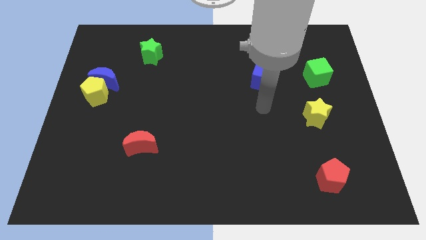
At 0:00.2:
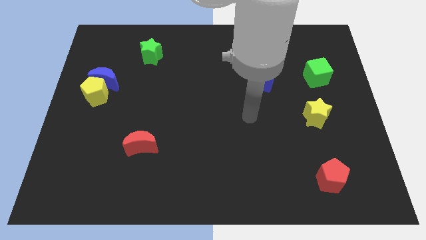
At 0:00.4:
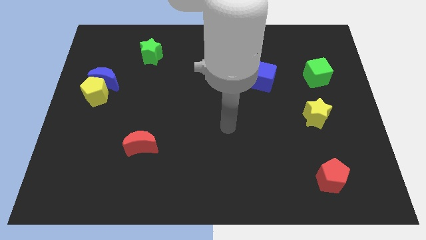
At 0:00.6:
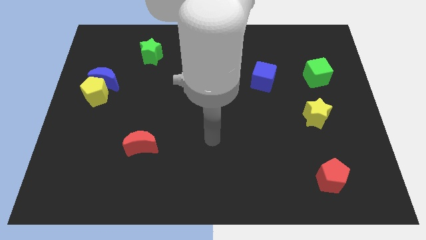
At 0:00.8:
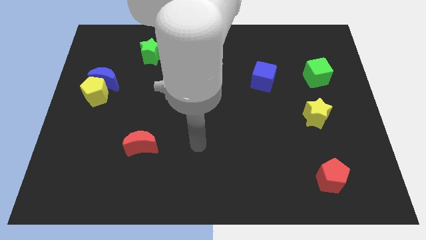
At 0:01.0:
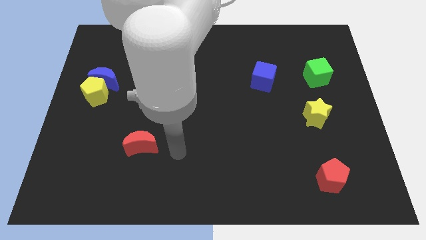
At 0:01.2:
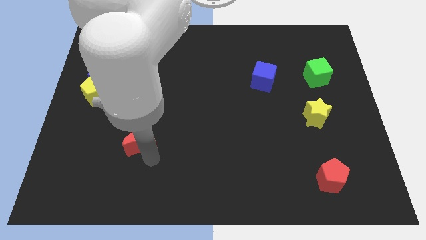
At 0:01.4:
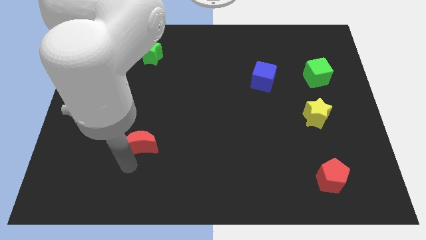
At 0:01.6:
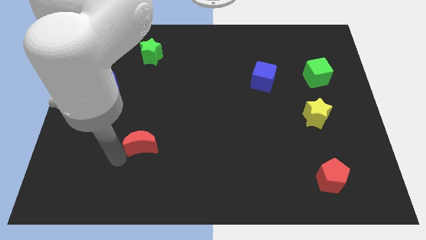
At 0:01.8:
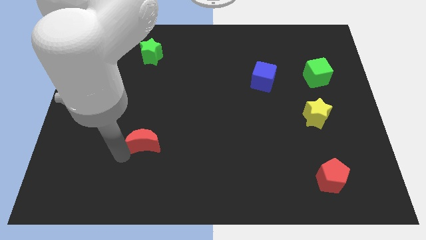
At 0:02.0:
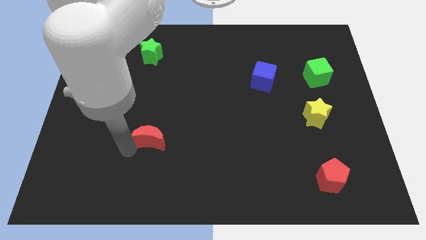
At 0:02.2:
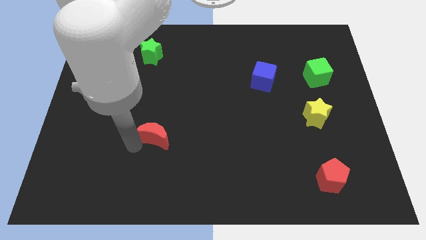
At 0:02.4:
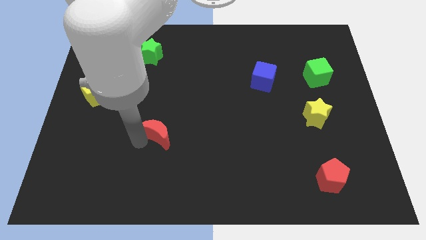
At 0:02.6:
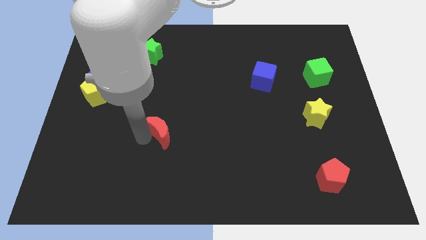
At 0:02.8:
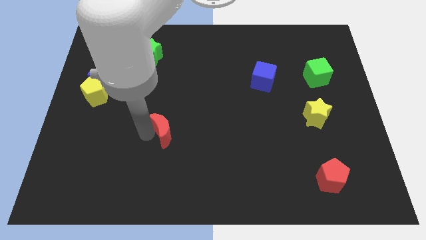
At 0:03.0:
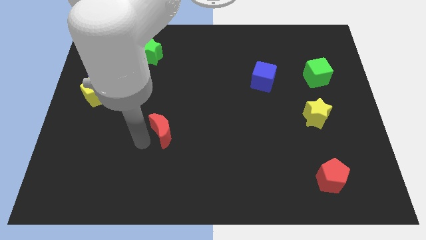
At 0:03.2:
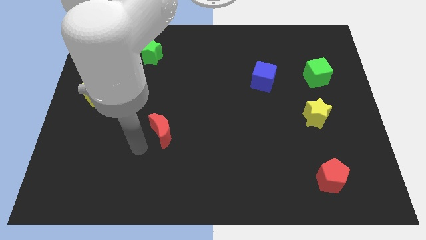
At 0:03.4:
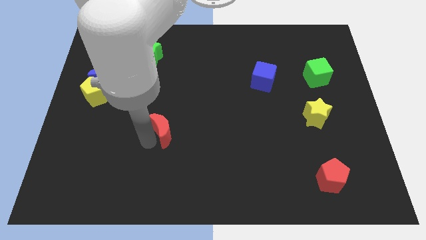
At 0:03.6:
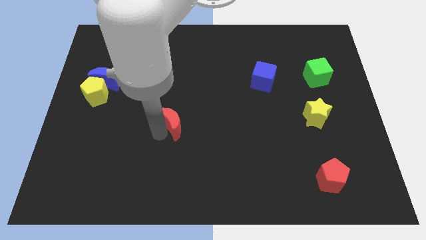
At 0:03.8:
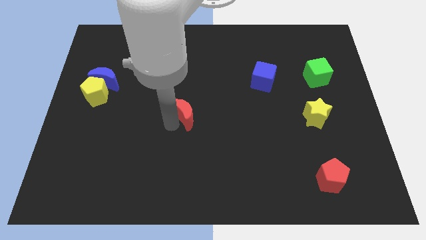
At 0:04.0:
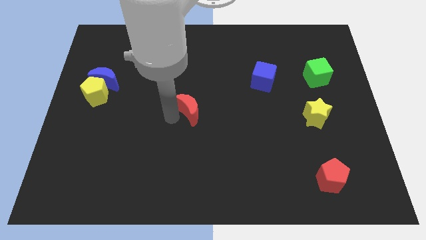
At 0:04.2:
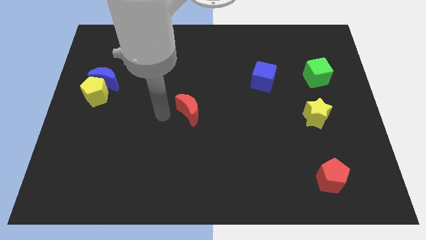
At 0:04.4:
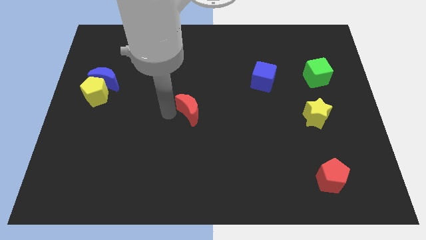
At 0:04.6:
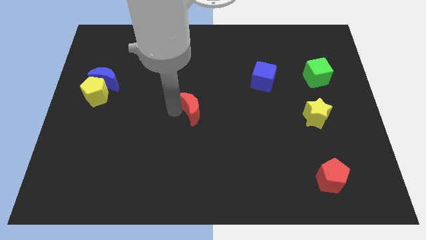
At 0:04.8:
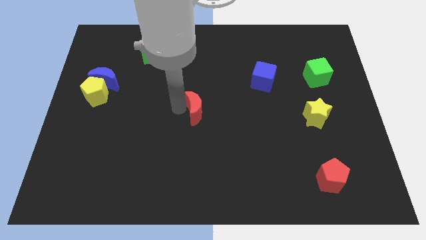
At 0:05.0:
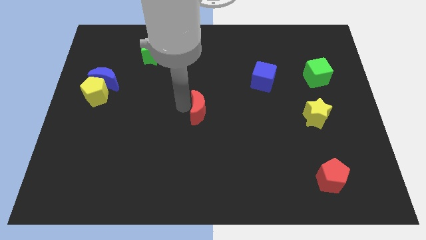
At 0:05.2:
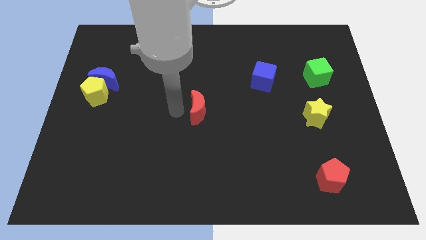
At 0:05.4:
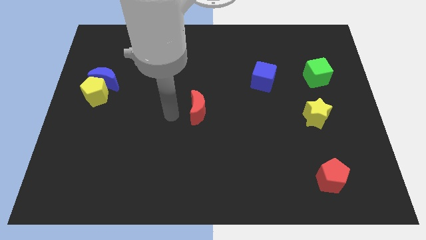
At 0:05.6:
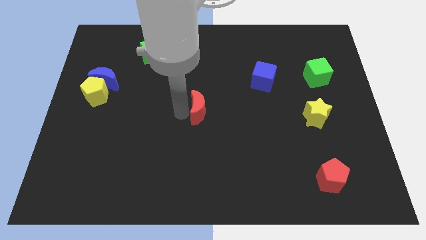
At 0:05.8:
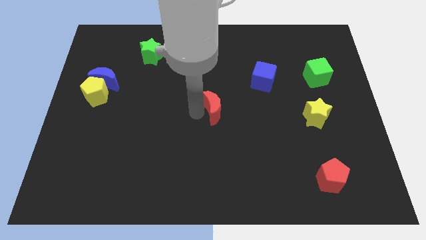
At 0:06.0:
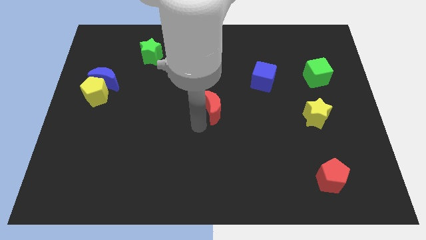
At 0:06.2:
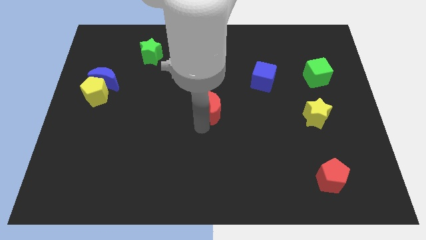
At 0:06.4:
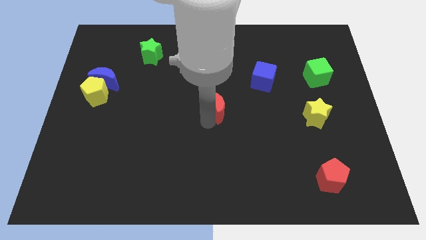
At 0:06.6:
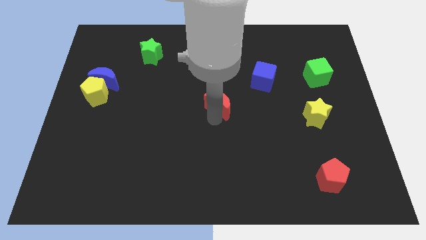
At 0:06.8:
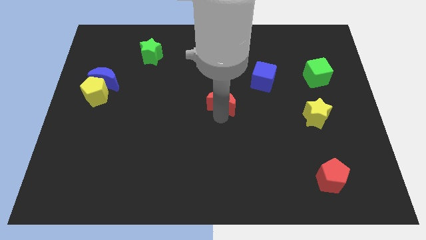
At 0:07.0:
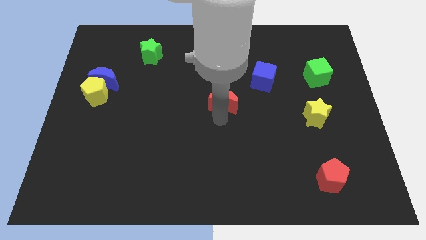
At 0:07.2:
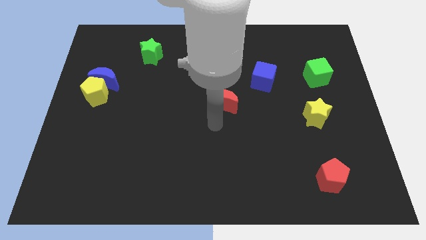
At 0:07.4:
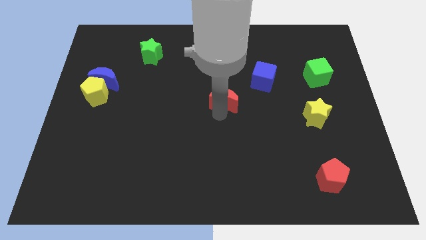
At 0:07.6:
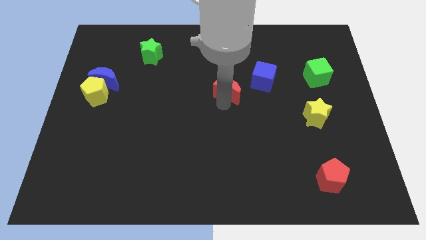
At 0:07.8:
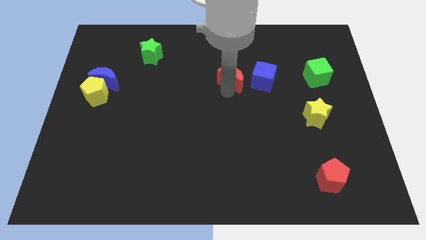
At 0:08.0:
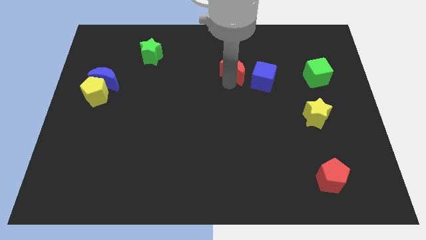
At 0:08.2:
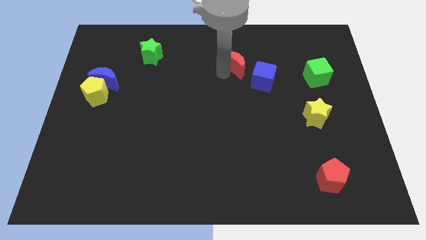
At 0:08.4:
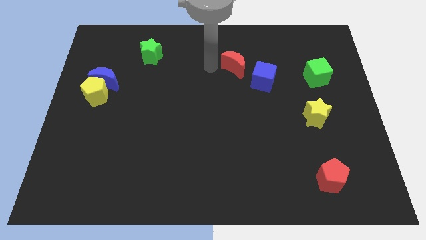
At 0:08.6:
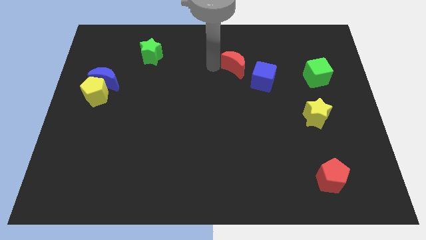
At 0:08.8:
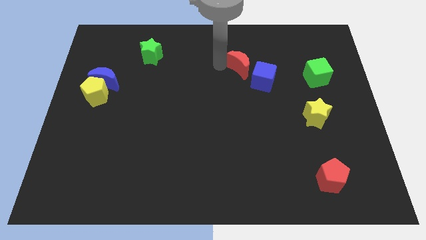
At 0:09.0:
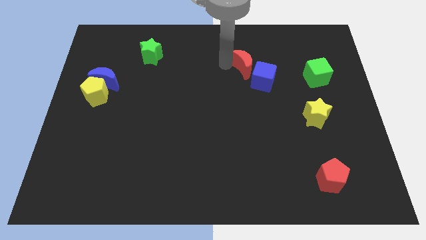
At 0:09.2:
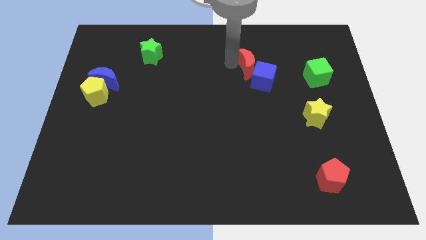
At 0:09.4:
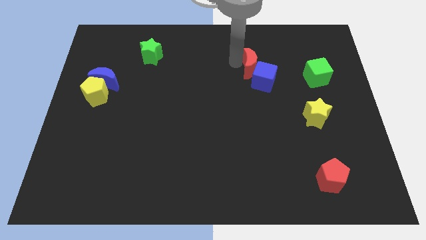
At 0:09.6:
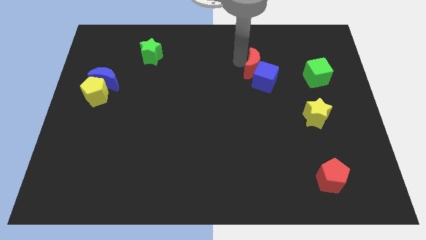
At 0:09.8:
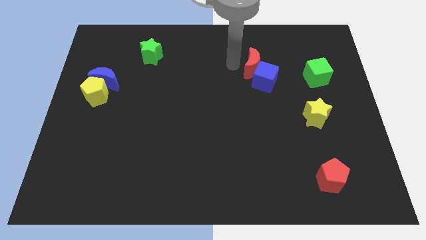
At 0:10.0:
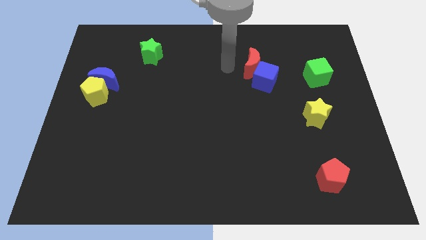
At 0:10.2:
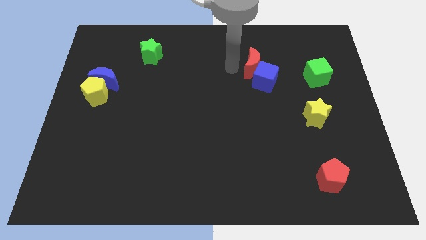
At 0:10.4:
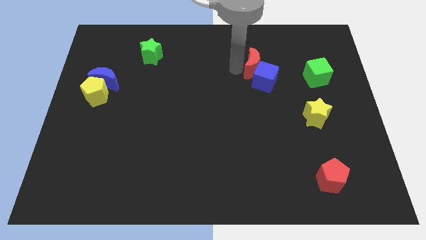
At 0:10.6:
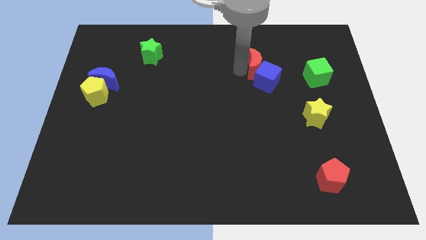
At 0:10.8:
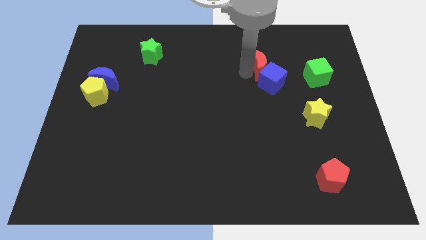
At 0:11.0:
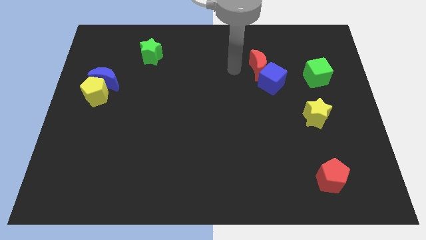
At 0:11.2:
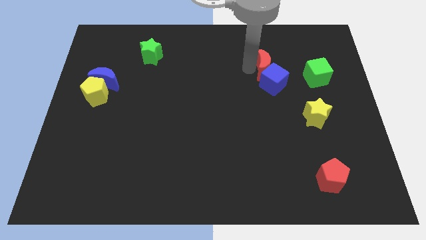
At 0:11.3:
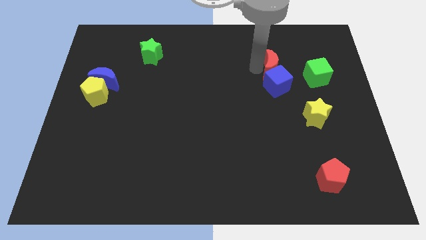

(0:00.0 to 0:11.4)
push the red moon to the top right of the blue cube

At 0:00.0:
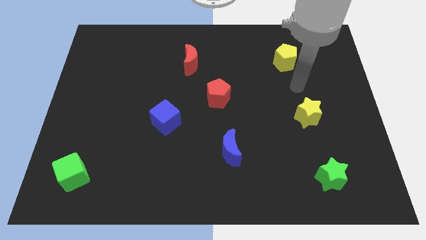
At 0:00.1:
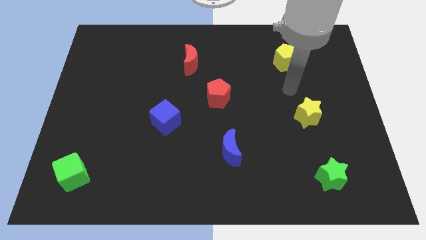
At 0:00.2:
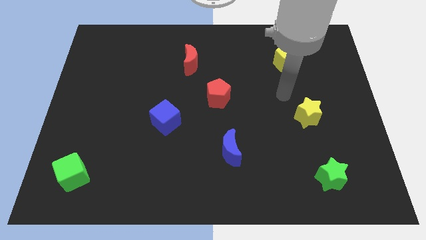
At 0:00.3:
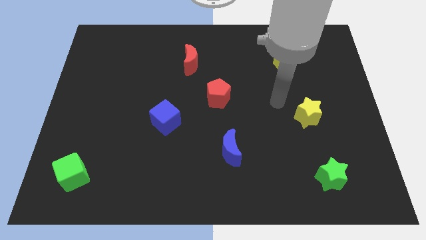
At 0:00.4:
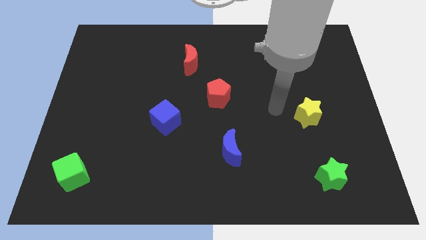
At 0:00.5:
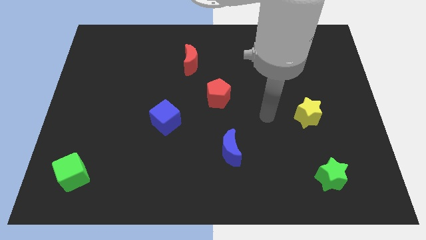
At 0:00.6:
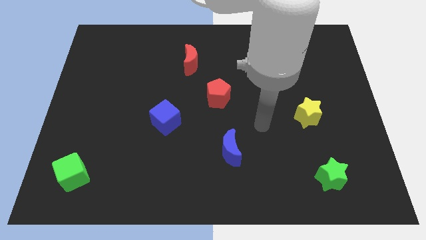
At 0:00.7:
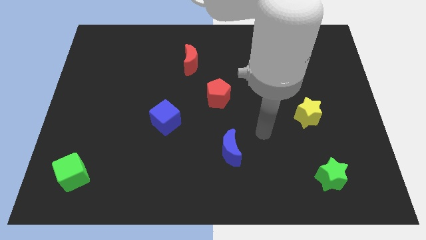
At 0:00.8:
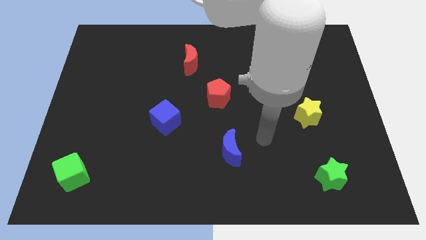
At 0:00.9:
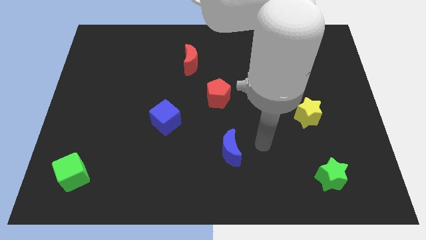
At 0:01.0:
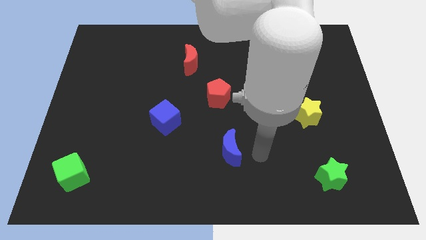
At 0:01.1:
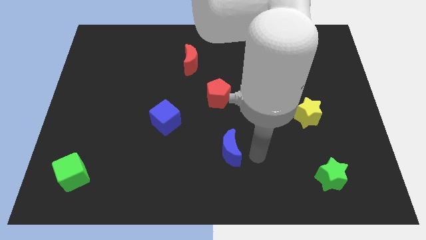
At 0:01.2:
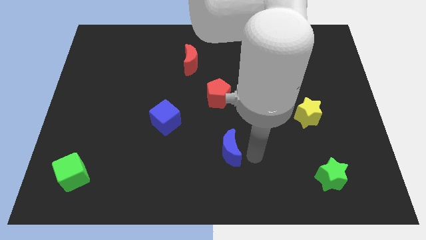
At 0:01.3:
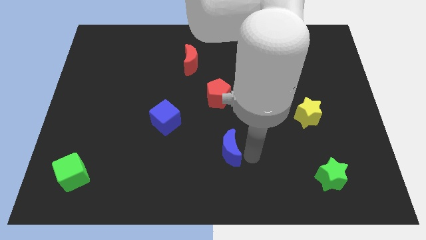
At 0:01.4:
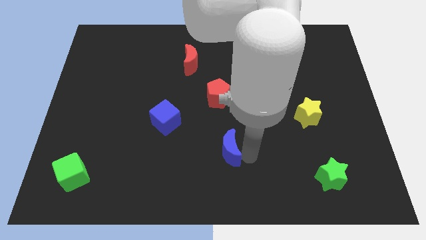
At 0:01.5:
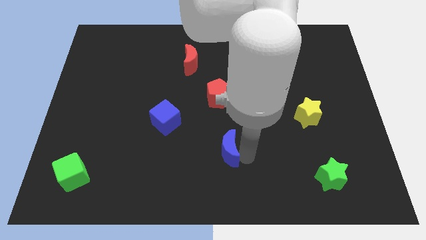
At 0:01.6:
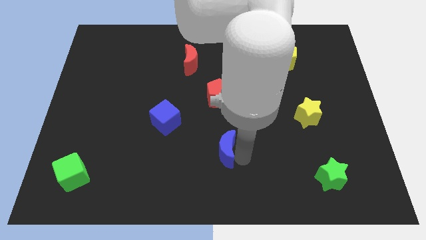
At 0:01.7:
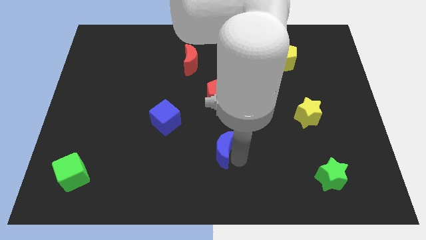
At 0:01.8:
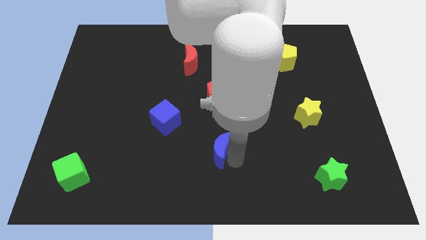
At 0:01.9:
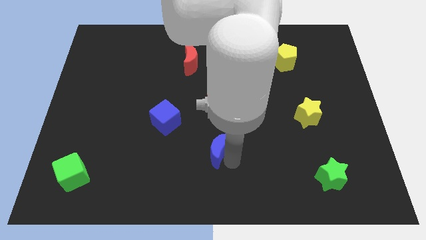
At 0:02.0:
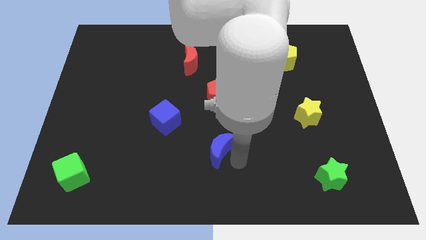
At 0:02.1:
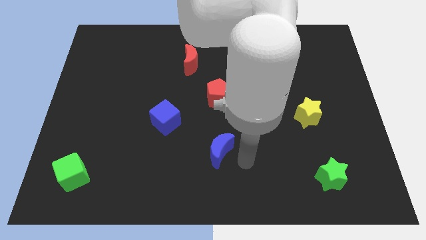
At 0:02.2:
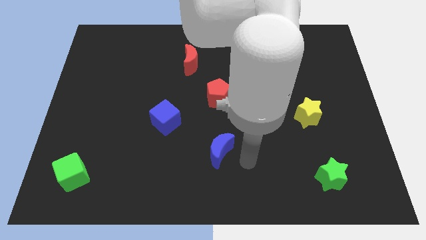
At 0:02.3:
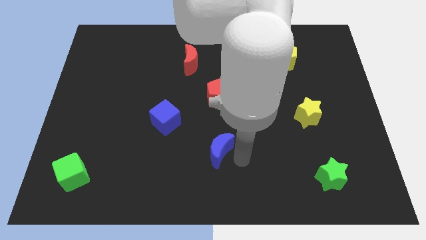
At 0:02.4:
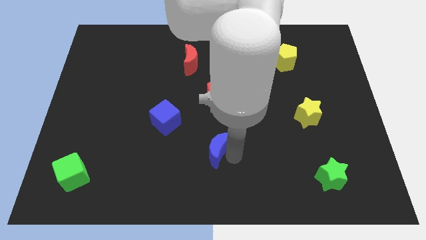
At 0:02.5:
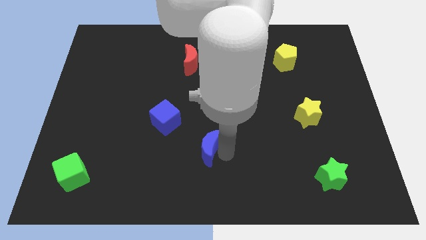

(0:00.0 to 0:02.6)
move the blue moon diagonally down and to the right of the blue cube
